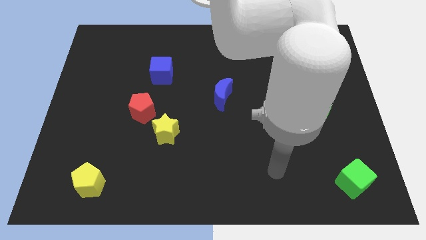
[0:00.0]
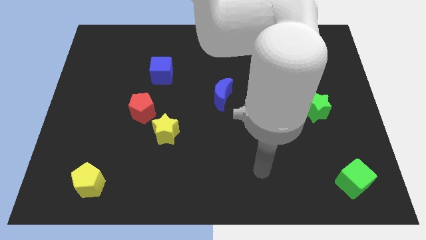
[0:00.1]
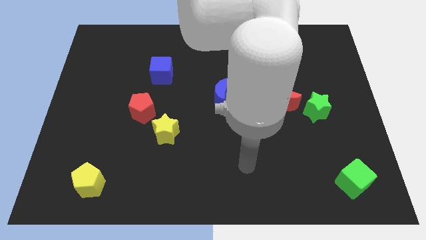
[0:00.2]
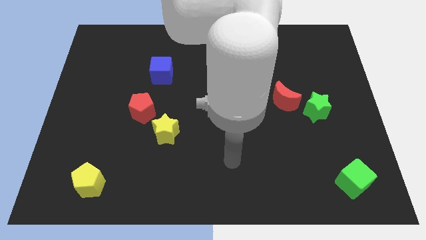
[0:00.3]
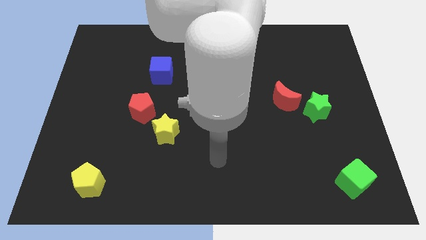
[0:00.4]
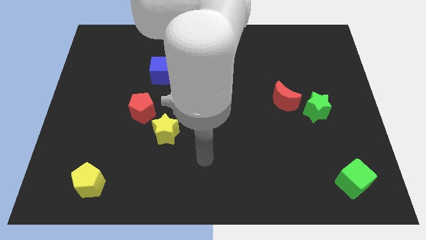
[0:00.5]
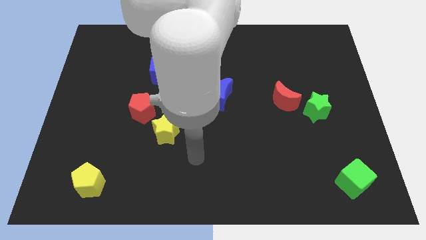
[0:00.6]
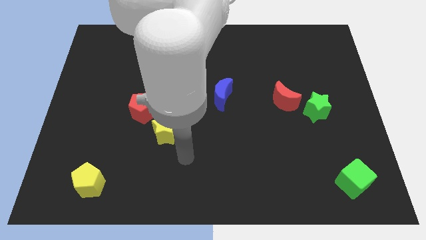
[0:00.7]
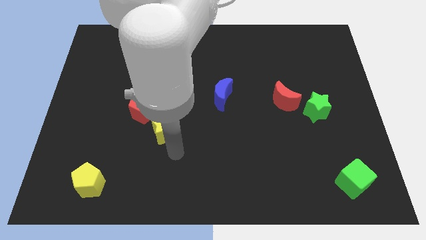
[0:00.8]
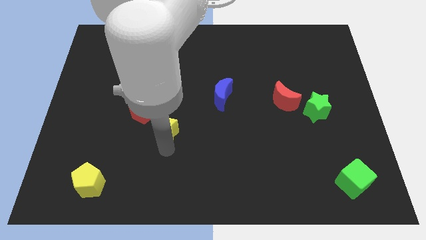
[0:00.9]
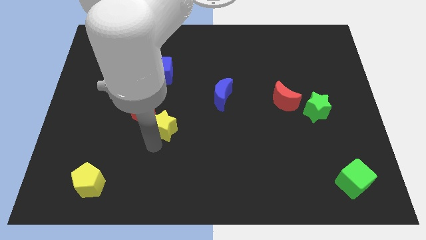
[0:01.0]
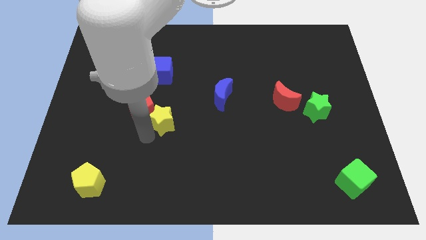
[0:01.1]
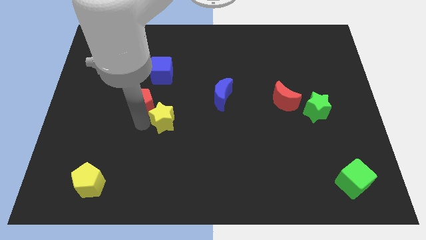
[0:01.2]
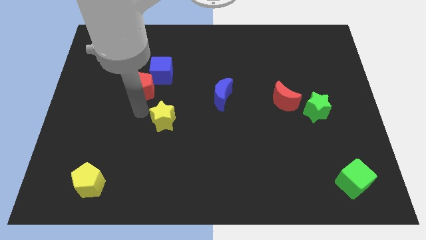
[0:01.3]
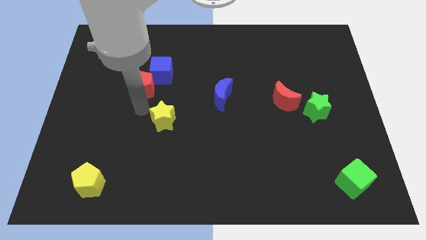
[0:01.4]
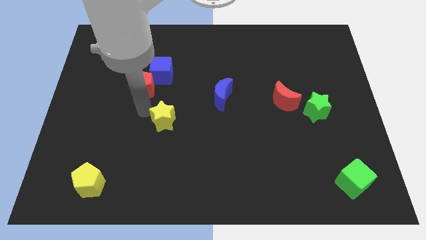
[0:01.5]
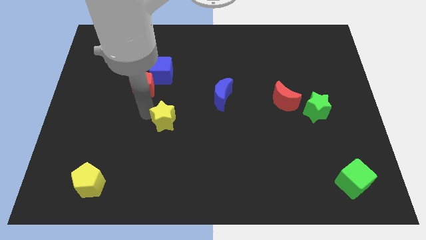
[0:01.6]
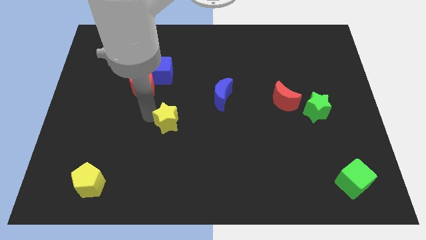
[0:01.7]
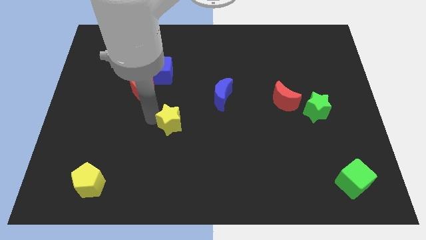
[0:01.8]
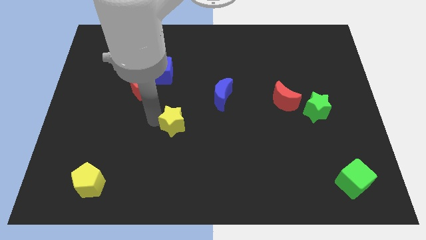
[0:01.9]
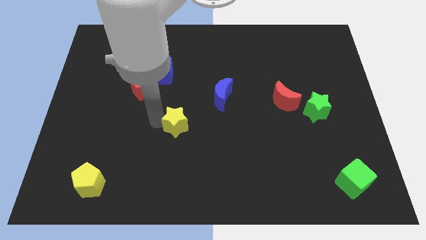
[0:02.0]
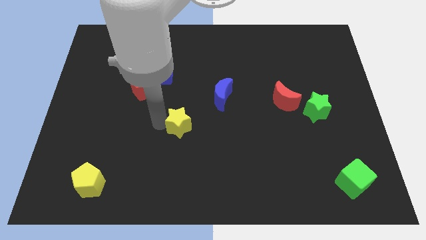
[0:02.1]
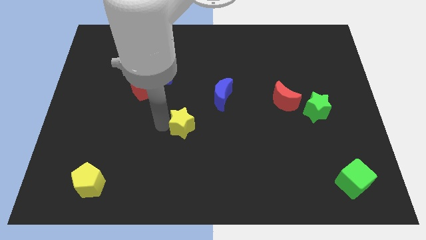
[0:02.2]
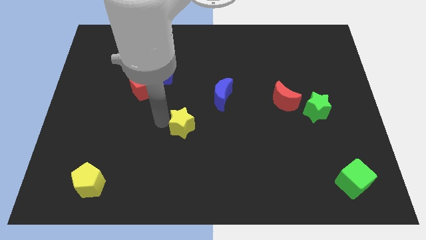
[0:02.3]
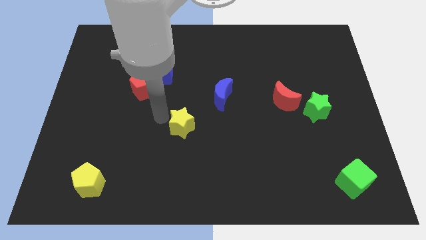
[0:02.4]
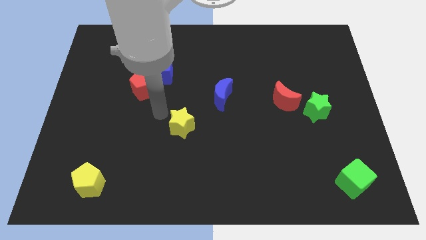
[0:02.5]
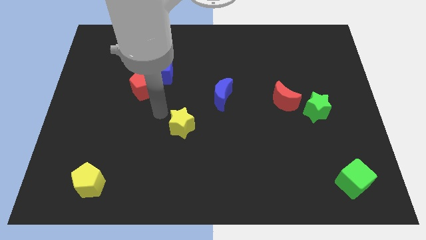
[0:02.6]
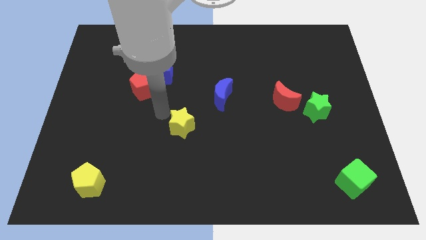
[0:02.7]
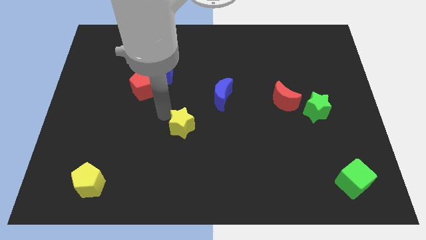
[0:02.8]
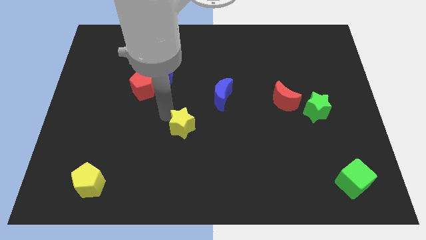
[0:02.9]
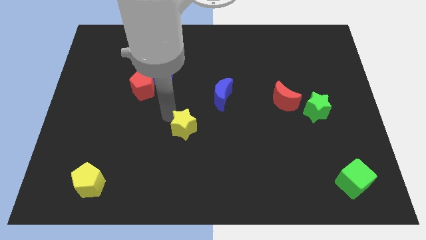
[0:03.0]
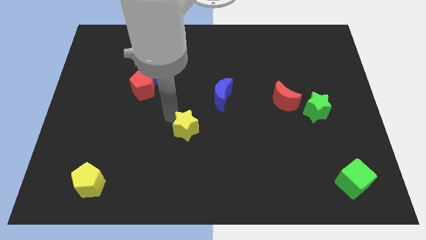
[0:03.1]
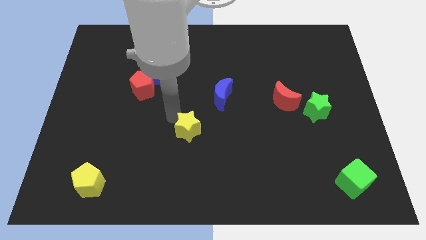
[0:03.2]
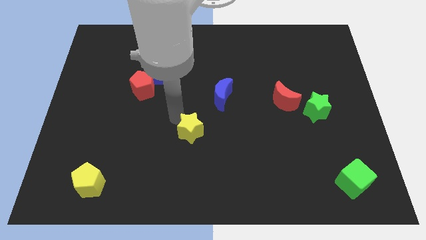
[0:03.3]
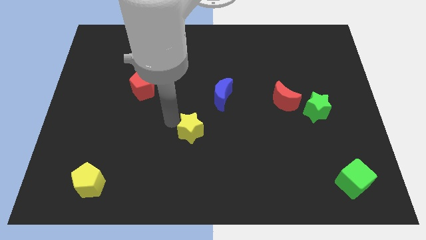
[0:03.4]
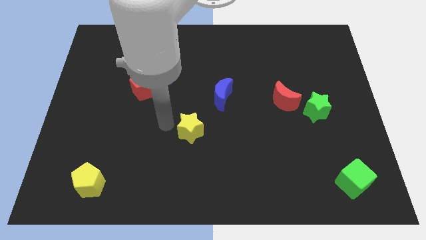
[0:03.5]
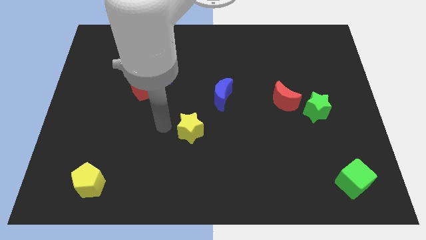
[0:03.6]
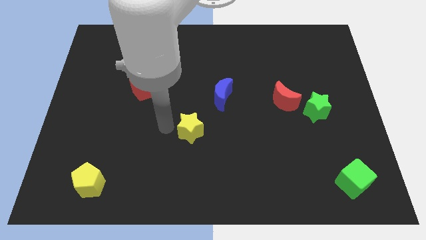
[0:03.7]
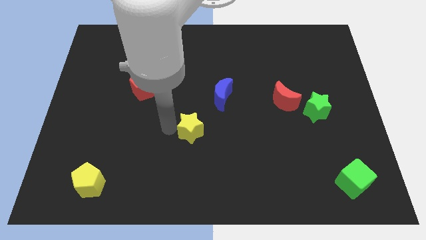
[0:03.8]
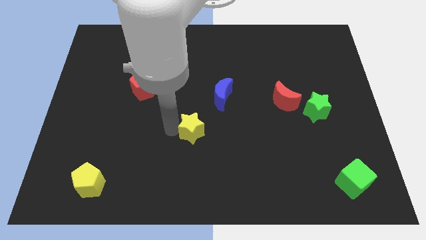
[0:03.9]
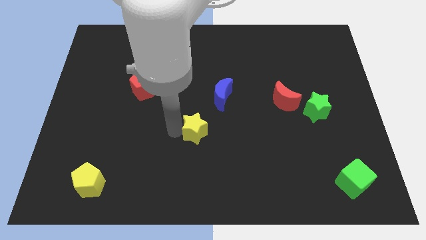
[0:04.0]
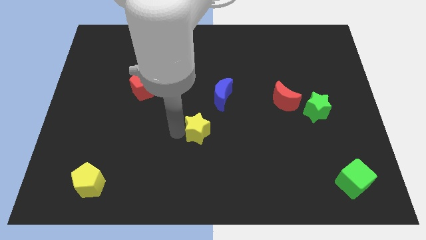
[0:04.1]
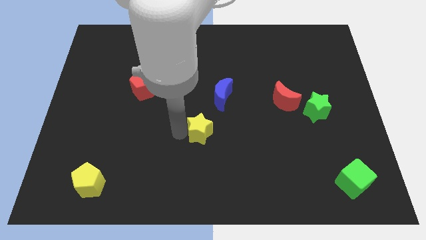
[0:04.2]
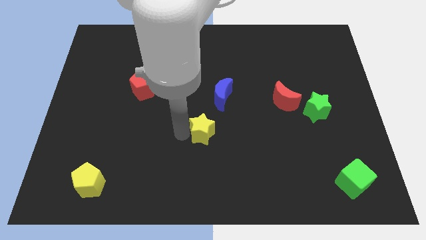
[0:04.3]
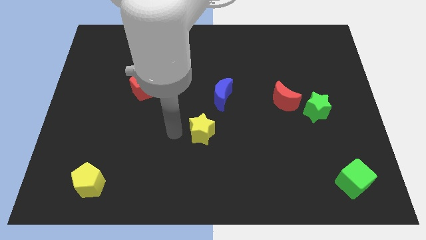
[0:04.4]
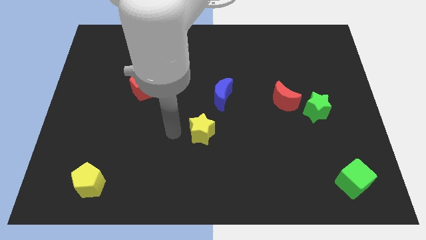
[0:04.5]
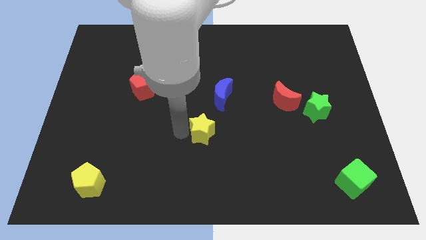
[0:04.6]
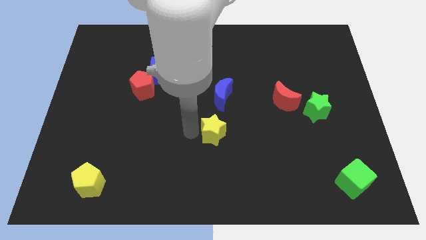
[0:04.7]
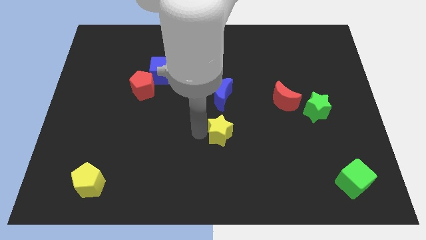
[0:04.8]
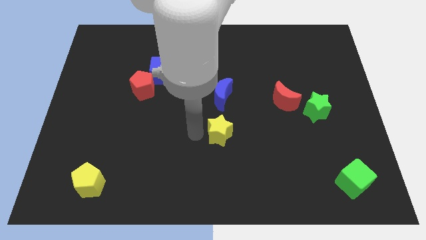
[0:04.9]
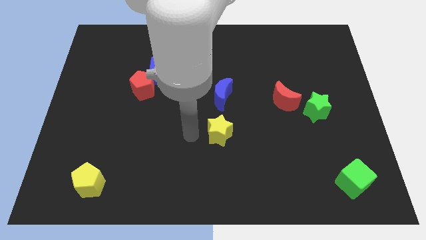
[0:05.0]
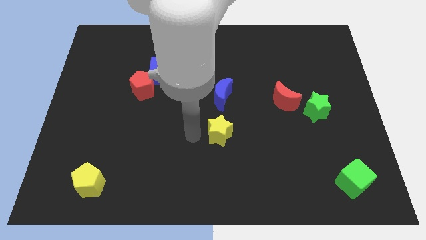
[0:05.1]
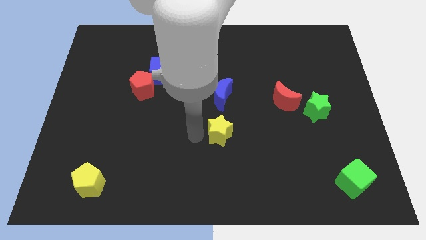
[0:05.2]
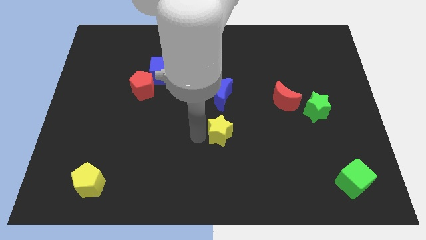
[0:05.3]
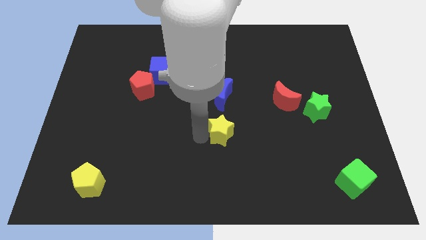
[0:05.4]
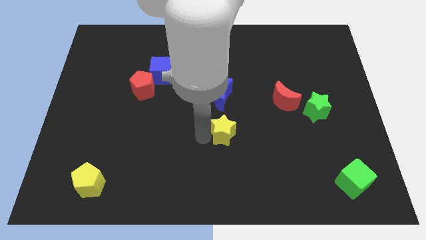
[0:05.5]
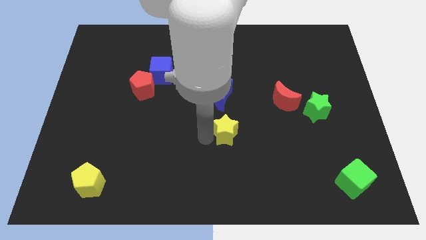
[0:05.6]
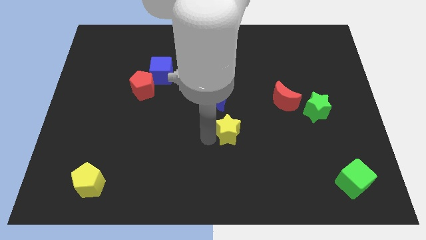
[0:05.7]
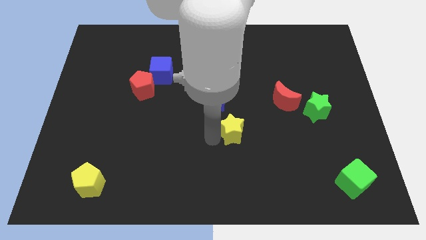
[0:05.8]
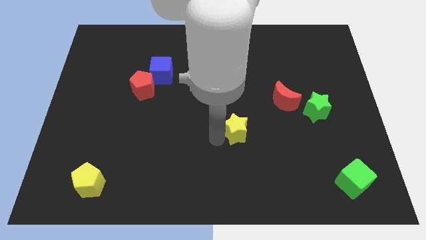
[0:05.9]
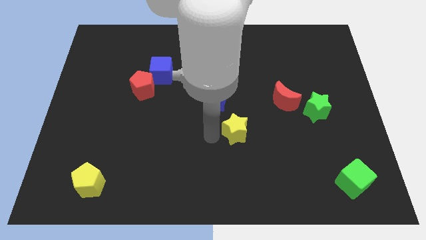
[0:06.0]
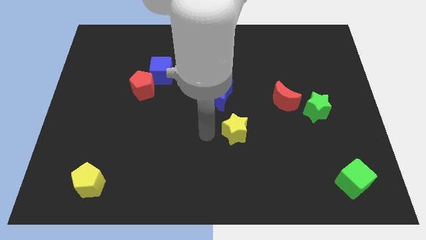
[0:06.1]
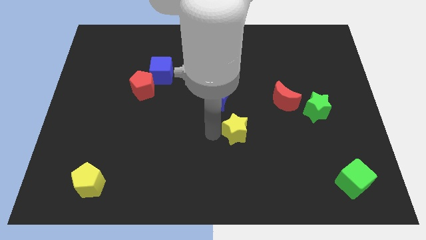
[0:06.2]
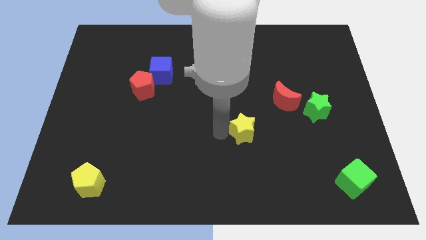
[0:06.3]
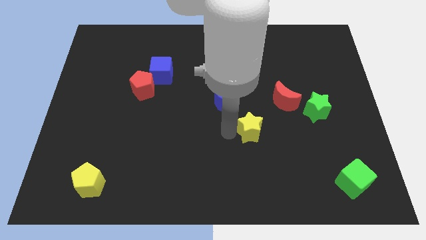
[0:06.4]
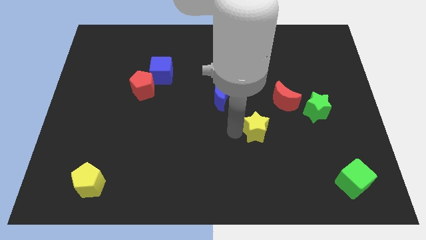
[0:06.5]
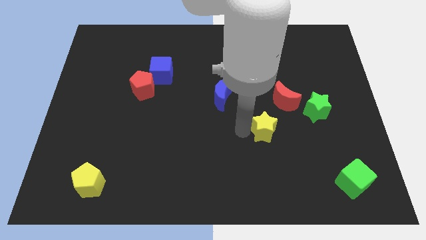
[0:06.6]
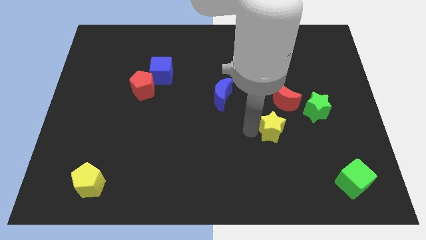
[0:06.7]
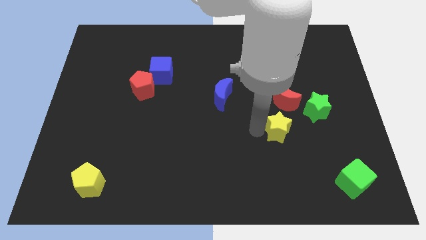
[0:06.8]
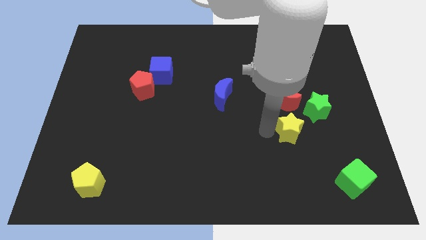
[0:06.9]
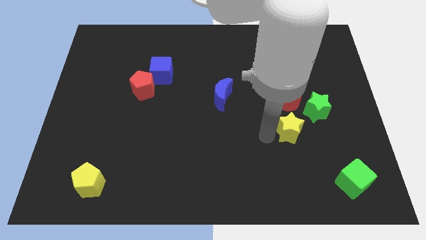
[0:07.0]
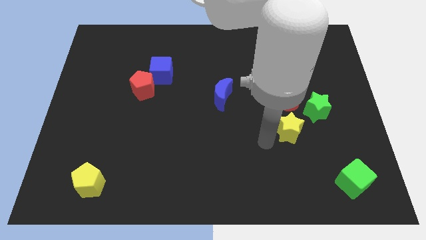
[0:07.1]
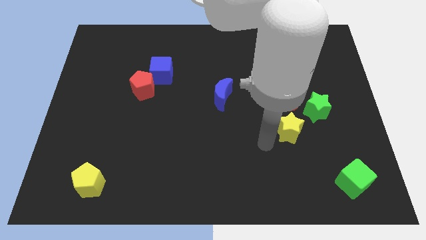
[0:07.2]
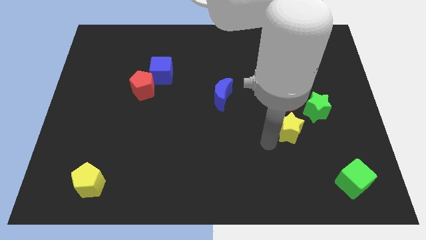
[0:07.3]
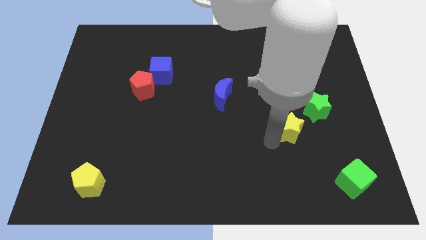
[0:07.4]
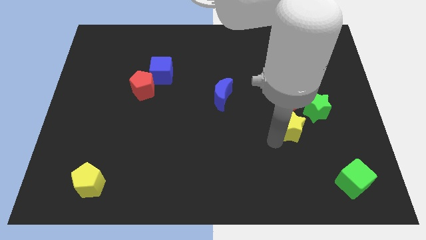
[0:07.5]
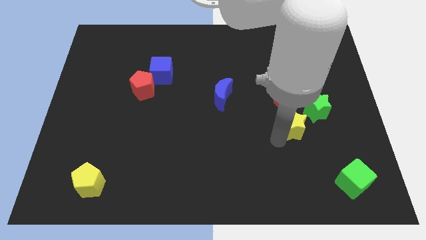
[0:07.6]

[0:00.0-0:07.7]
put the yellow star to the bottom right of the red moon
